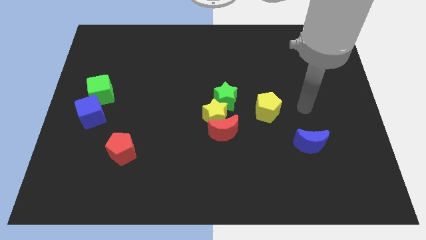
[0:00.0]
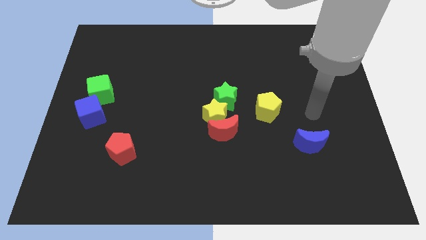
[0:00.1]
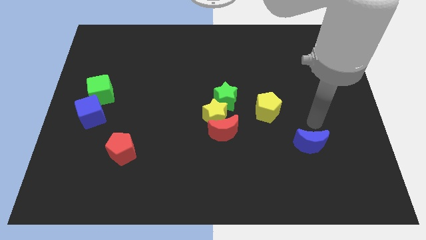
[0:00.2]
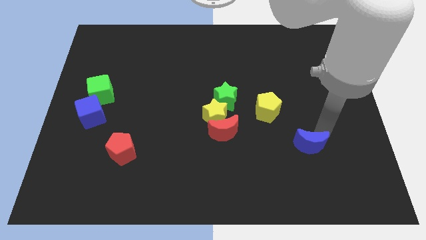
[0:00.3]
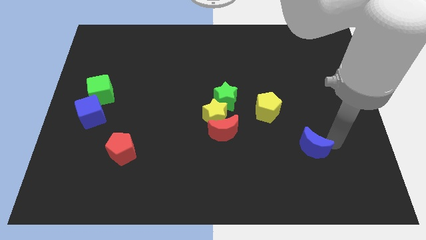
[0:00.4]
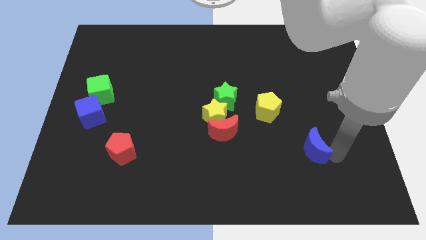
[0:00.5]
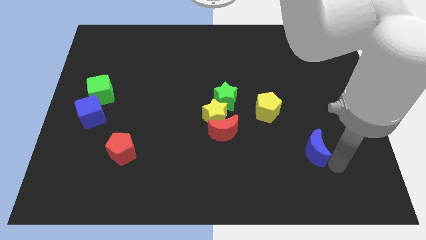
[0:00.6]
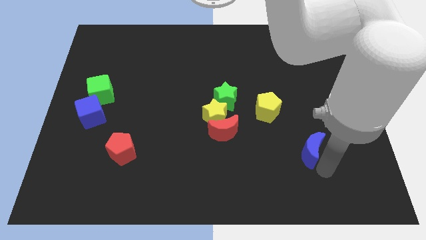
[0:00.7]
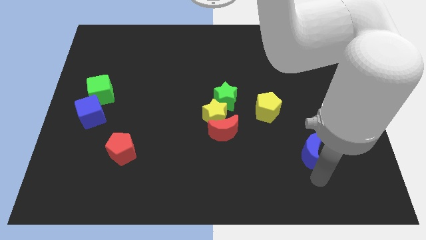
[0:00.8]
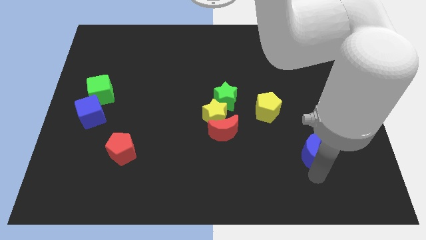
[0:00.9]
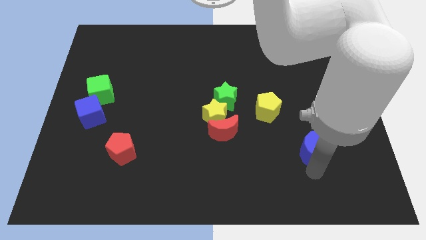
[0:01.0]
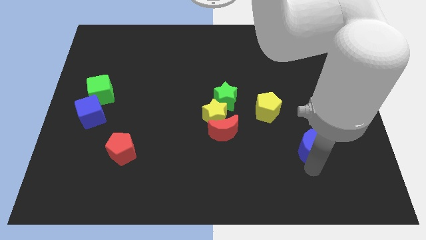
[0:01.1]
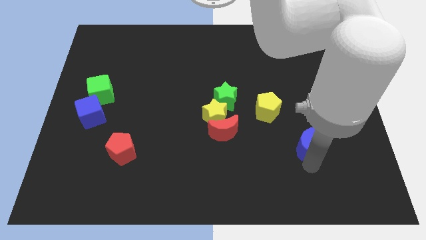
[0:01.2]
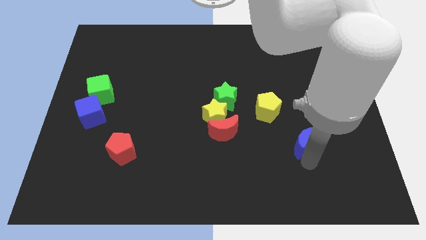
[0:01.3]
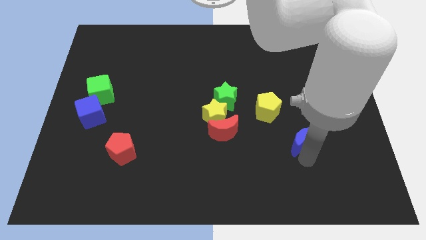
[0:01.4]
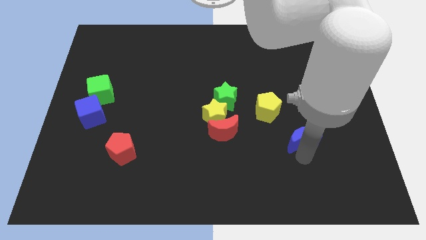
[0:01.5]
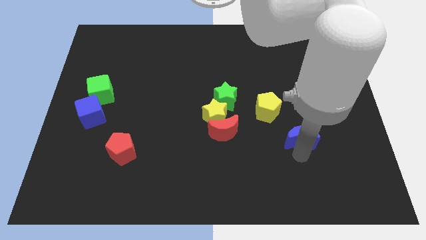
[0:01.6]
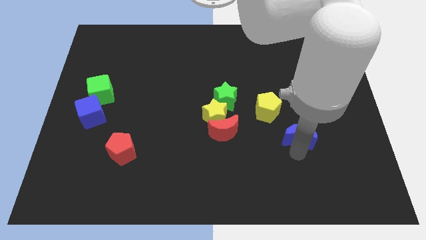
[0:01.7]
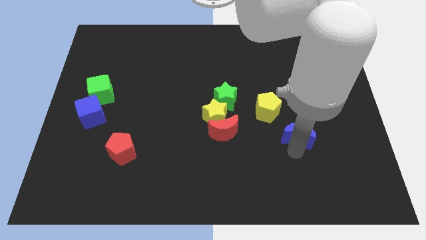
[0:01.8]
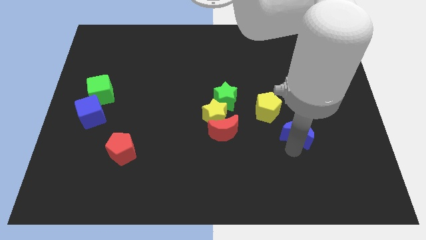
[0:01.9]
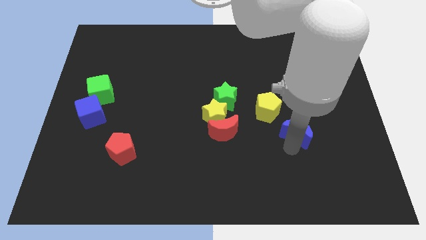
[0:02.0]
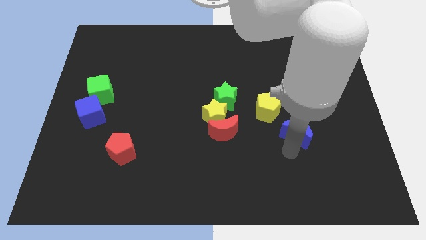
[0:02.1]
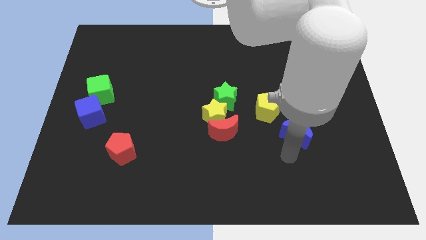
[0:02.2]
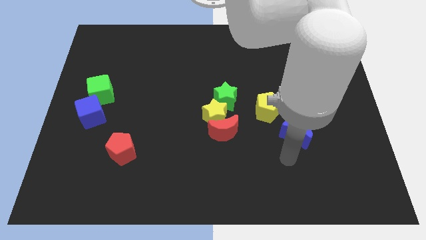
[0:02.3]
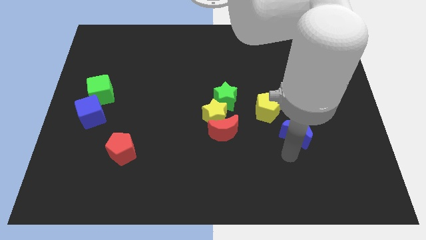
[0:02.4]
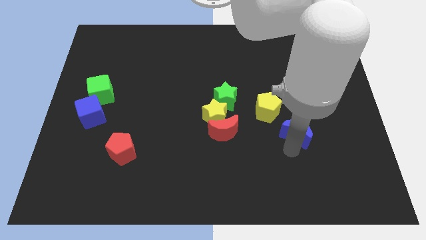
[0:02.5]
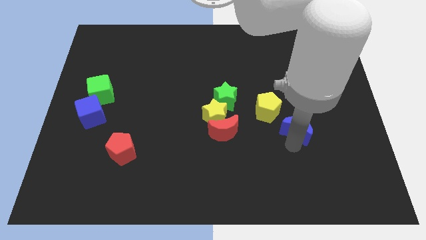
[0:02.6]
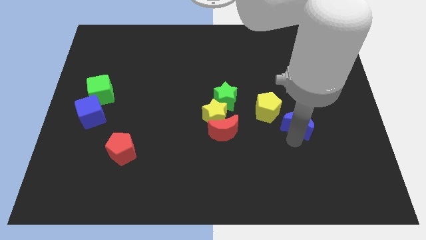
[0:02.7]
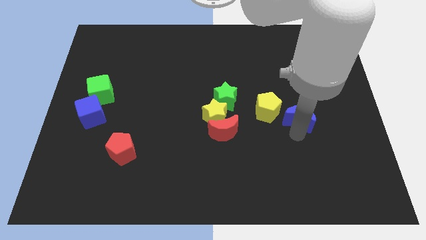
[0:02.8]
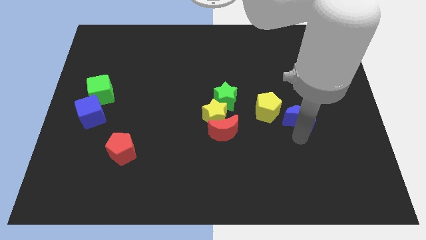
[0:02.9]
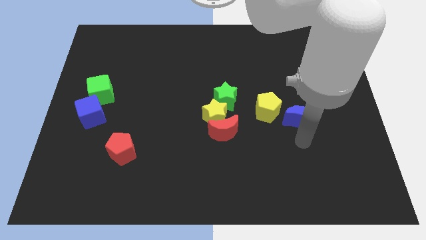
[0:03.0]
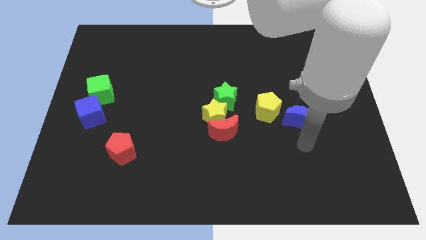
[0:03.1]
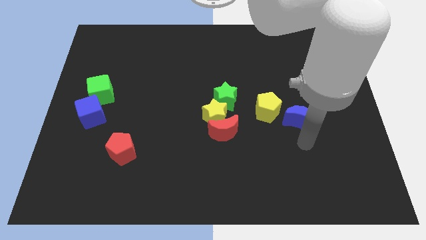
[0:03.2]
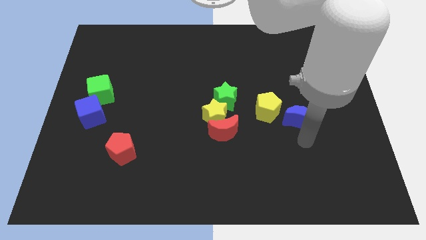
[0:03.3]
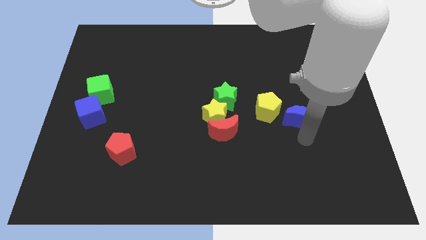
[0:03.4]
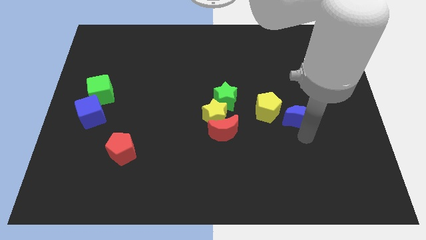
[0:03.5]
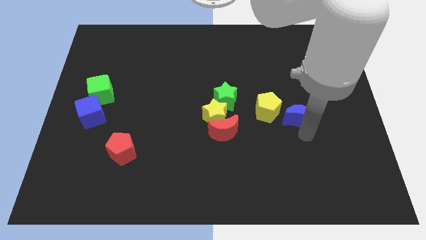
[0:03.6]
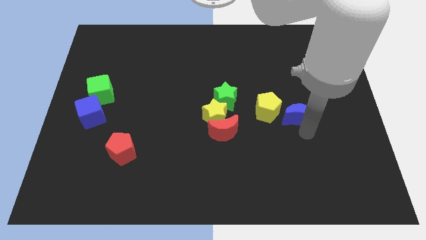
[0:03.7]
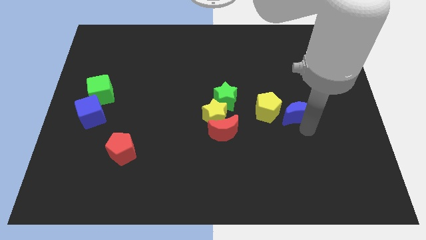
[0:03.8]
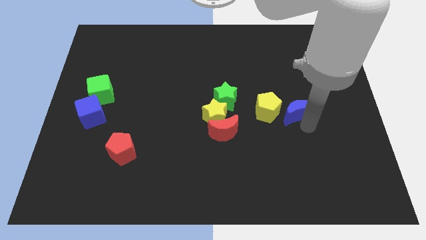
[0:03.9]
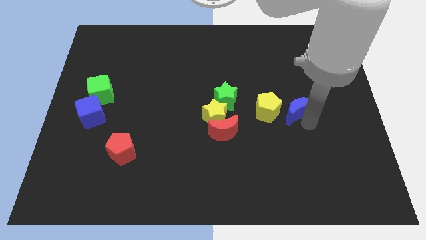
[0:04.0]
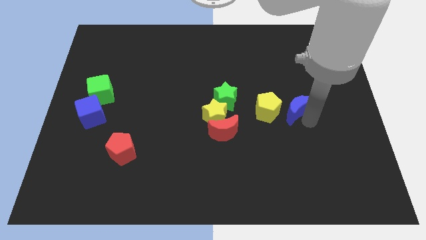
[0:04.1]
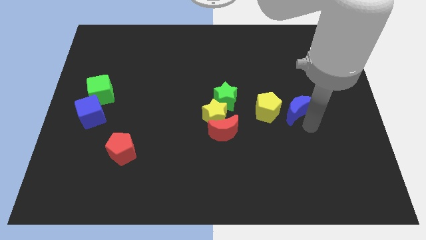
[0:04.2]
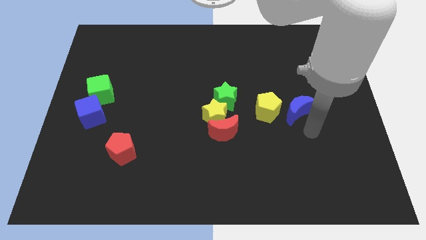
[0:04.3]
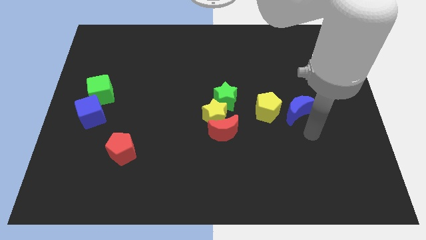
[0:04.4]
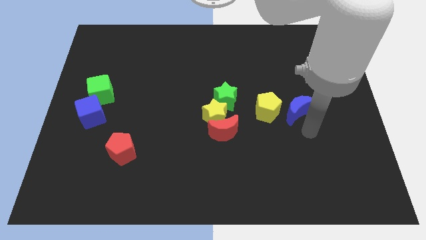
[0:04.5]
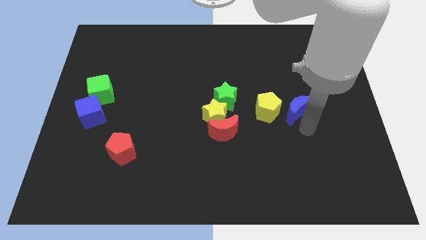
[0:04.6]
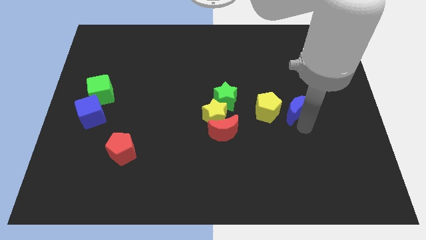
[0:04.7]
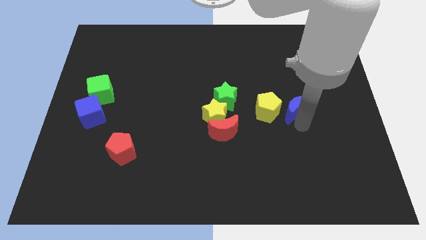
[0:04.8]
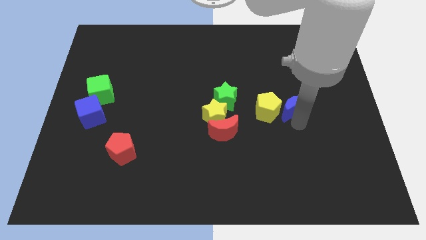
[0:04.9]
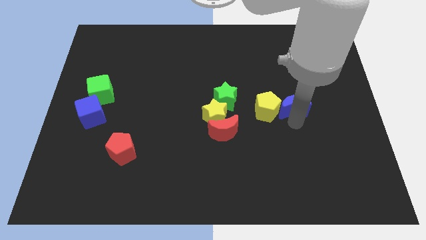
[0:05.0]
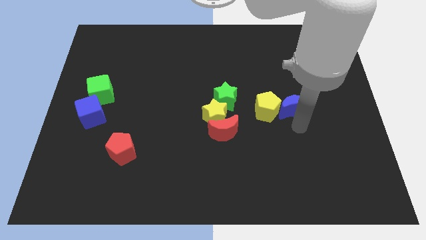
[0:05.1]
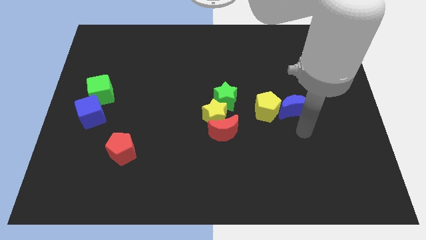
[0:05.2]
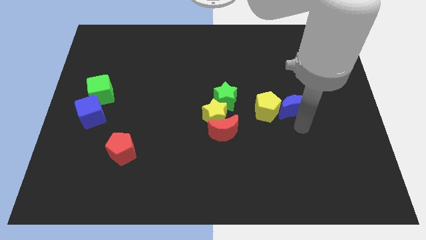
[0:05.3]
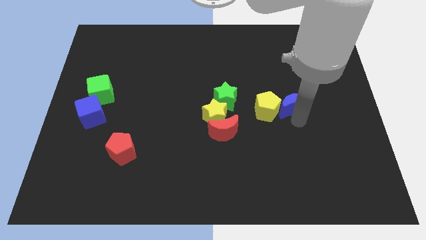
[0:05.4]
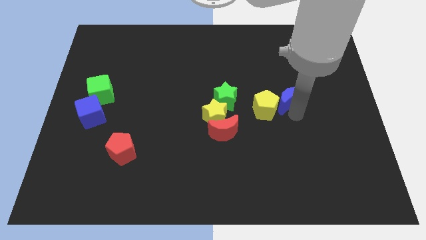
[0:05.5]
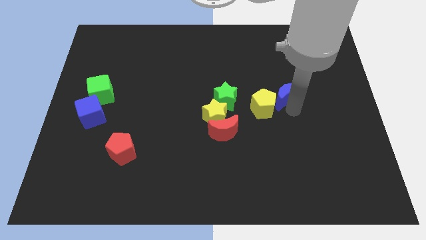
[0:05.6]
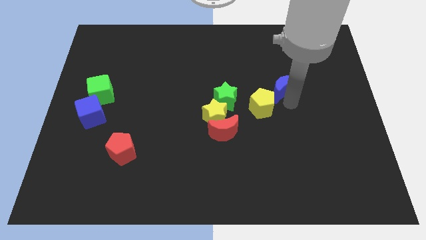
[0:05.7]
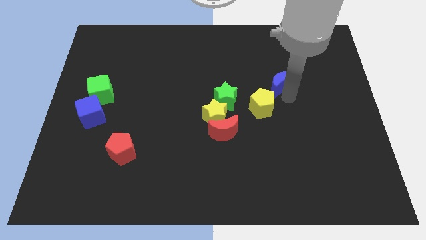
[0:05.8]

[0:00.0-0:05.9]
move the blue moon to the top side of the yellow pentagon

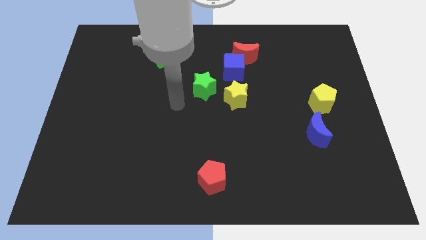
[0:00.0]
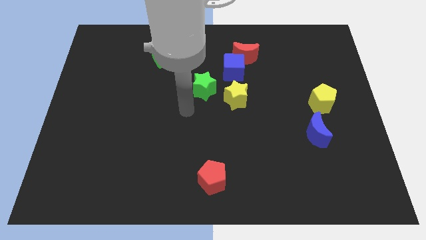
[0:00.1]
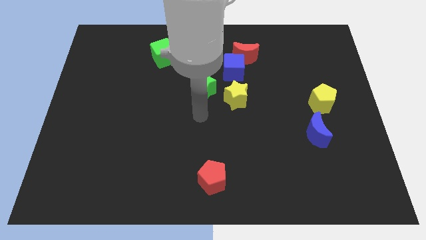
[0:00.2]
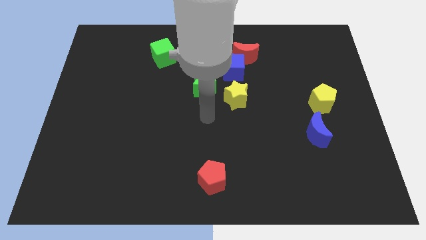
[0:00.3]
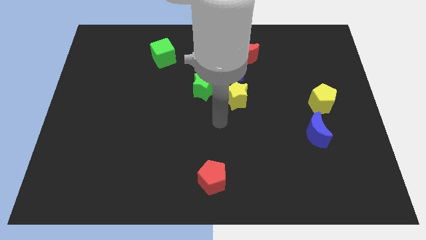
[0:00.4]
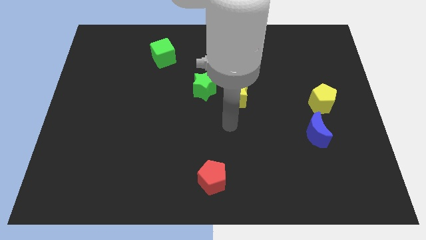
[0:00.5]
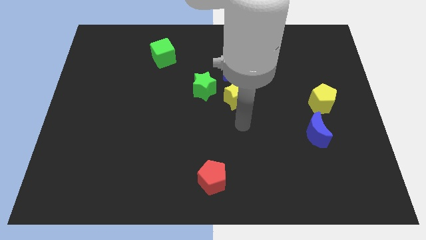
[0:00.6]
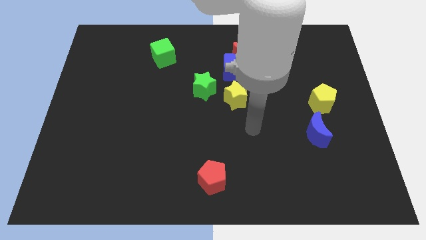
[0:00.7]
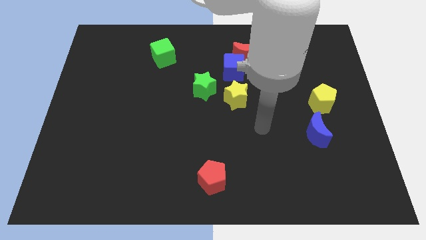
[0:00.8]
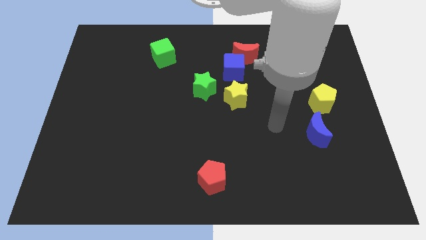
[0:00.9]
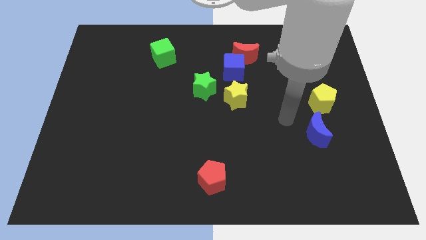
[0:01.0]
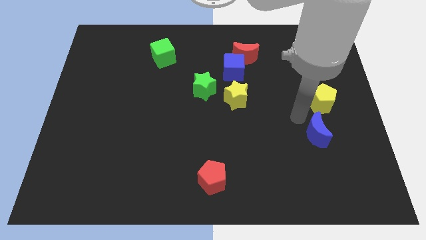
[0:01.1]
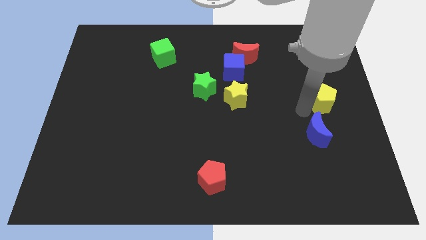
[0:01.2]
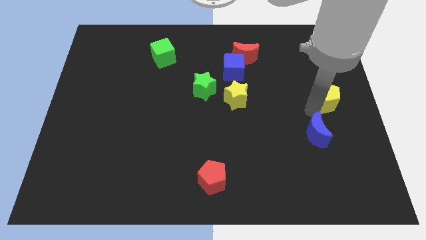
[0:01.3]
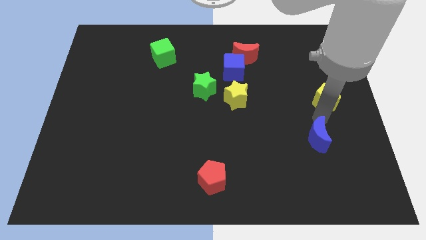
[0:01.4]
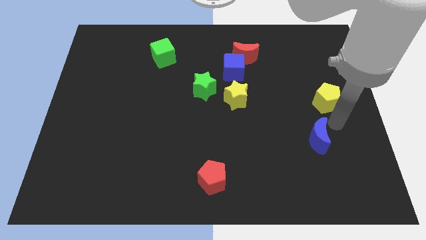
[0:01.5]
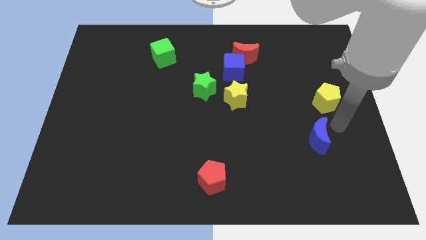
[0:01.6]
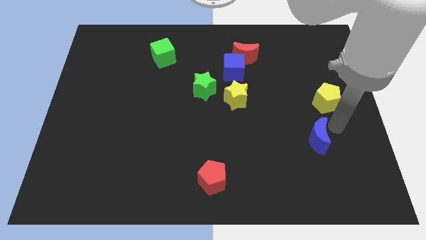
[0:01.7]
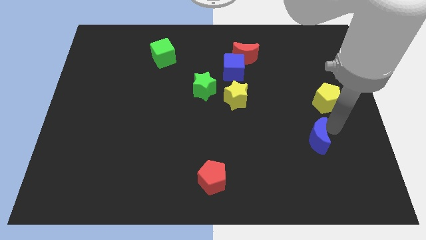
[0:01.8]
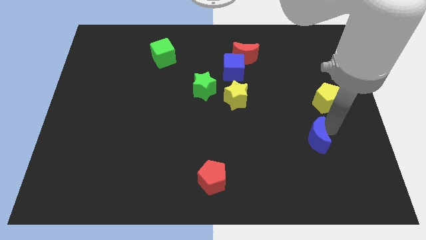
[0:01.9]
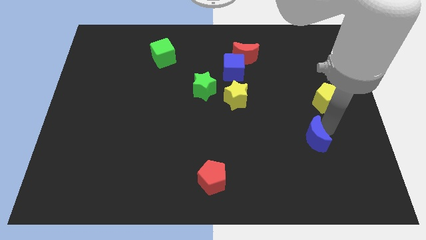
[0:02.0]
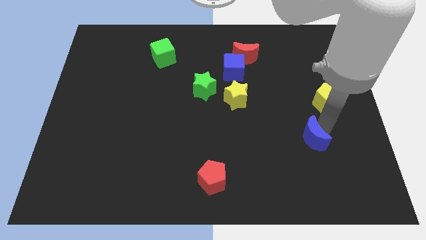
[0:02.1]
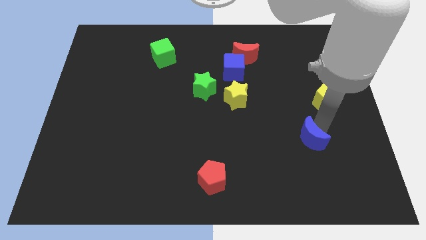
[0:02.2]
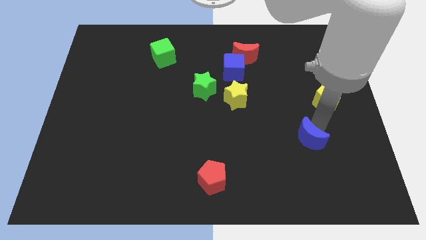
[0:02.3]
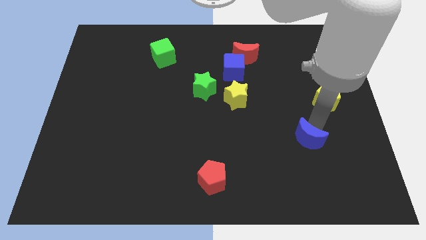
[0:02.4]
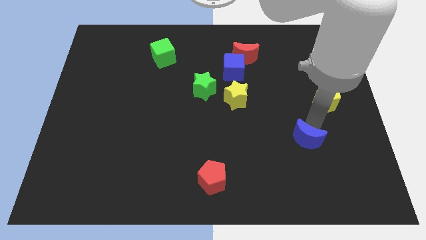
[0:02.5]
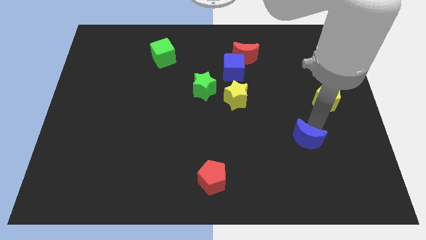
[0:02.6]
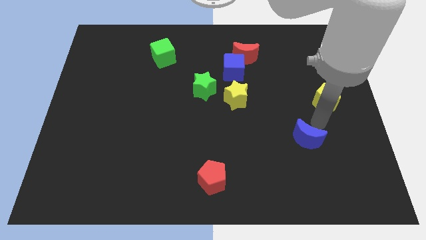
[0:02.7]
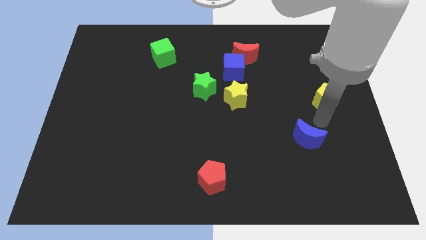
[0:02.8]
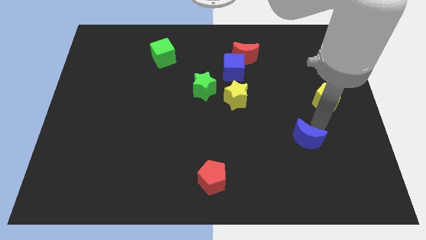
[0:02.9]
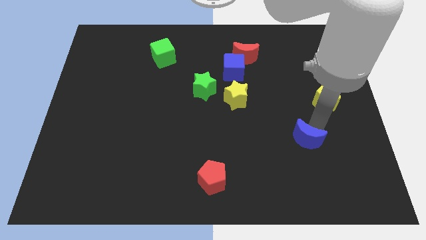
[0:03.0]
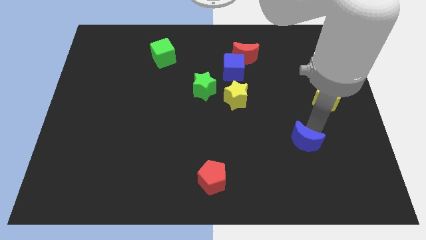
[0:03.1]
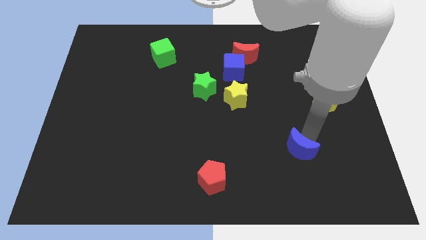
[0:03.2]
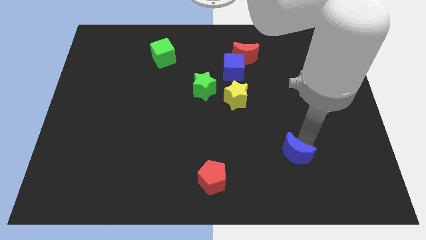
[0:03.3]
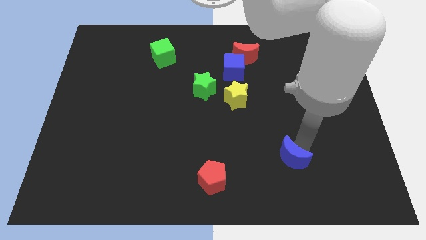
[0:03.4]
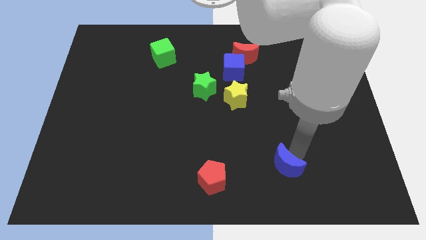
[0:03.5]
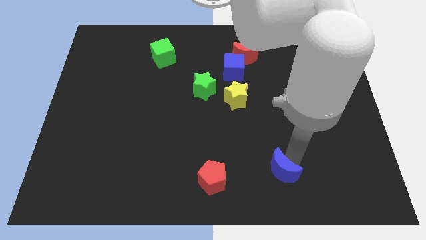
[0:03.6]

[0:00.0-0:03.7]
push the blue moon right of the red pentagon
